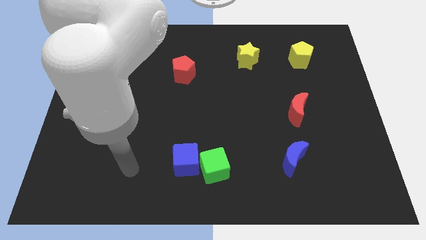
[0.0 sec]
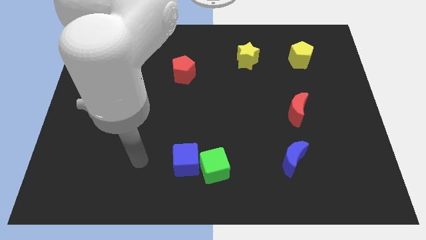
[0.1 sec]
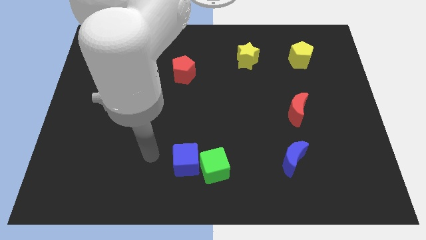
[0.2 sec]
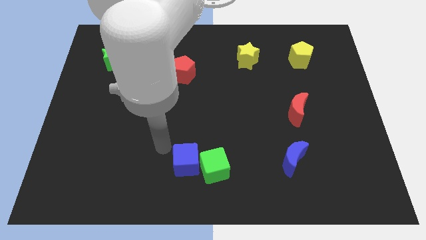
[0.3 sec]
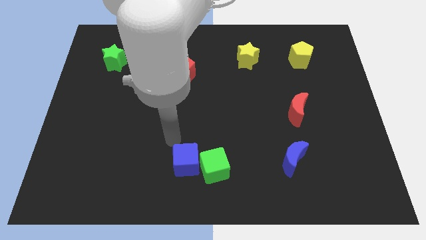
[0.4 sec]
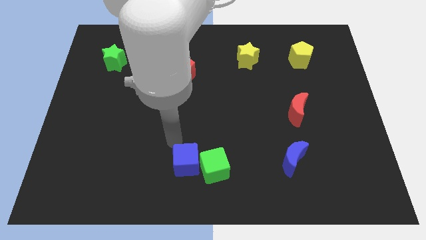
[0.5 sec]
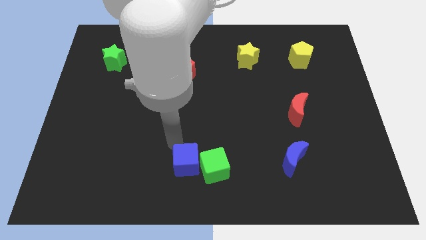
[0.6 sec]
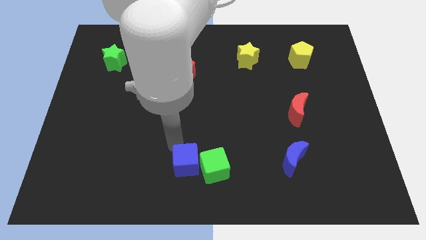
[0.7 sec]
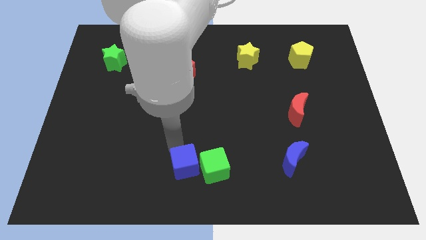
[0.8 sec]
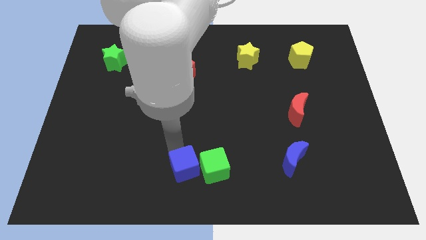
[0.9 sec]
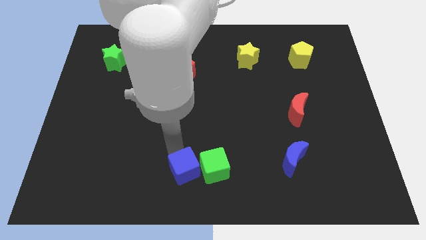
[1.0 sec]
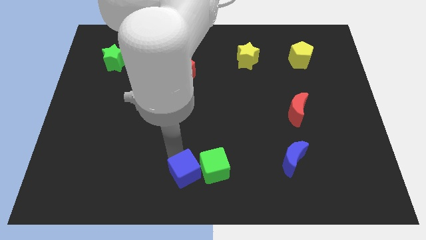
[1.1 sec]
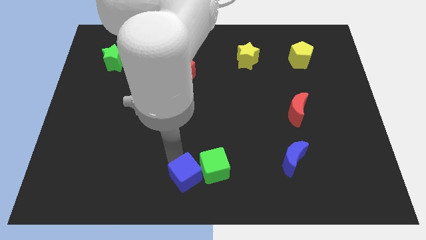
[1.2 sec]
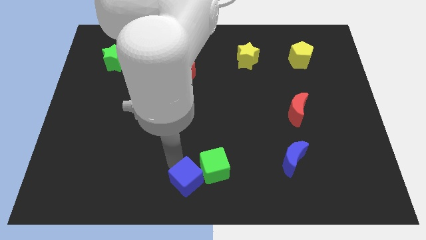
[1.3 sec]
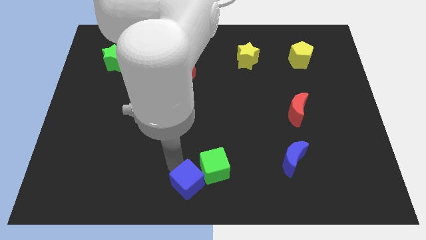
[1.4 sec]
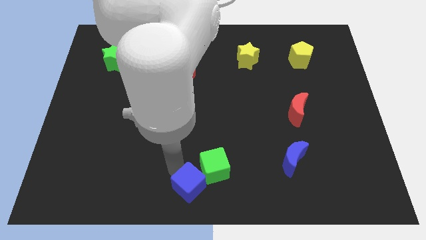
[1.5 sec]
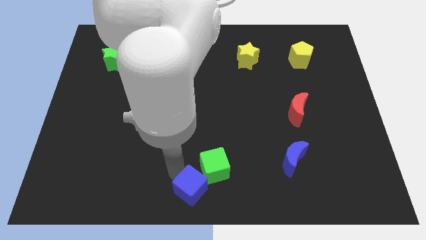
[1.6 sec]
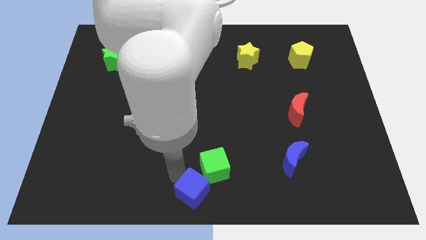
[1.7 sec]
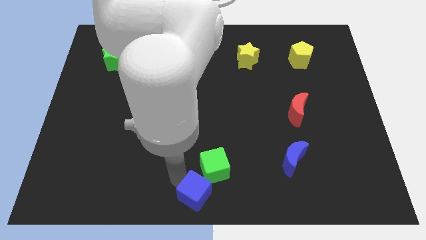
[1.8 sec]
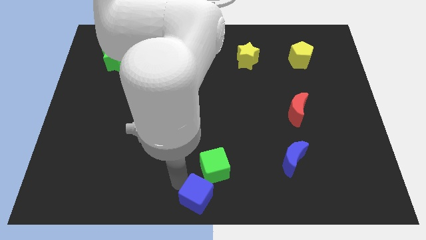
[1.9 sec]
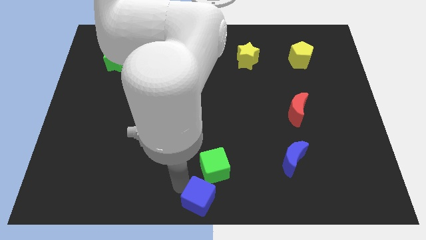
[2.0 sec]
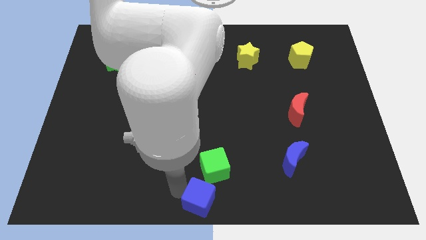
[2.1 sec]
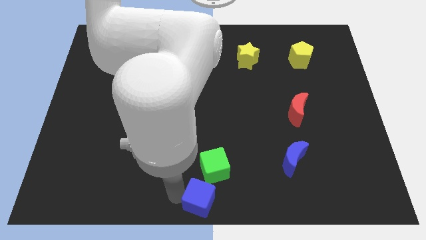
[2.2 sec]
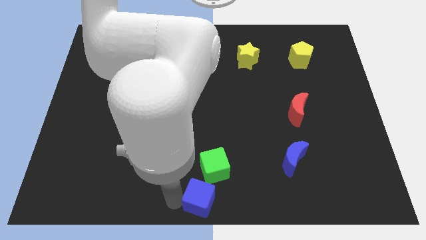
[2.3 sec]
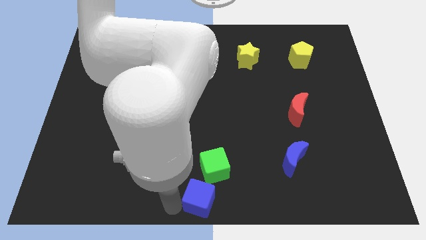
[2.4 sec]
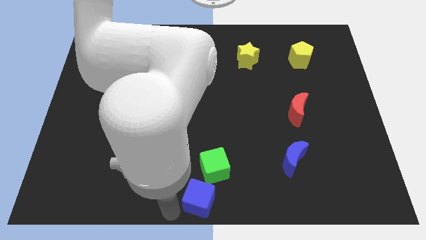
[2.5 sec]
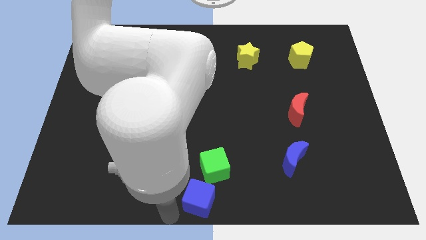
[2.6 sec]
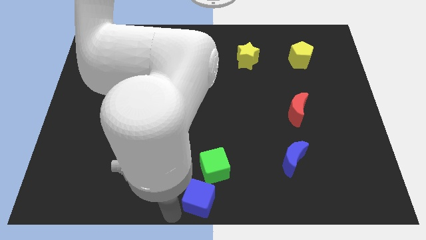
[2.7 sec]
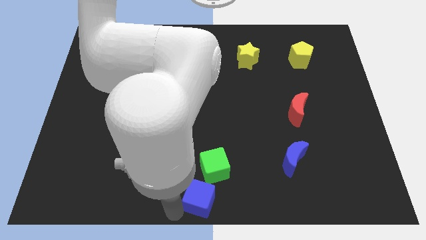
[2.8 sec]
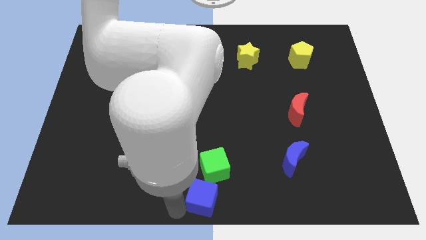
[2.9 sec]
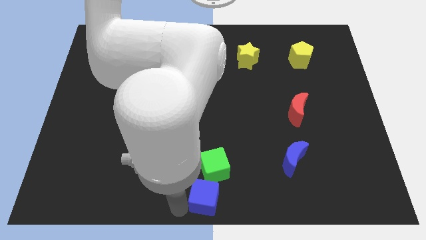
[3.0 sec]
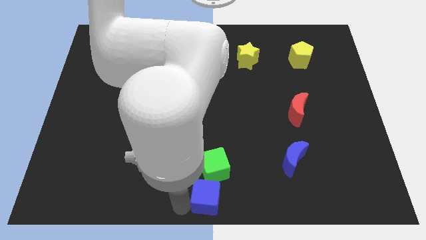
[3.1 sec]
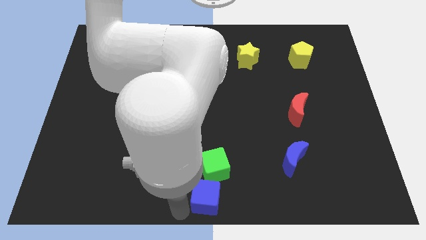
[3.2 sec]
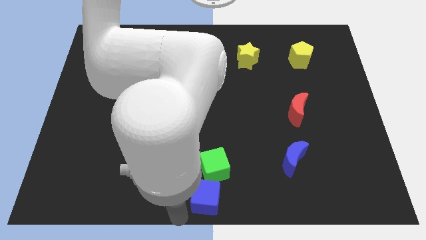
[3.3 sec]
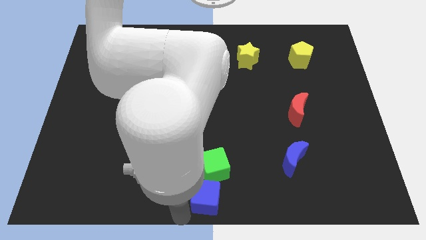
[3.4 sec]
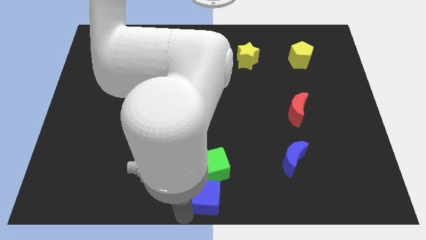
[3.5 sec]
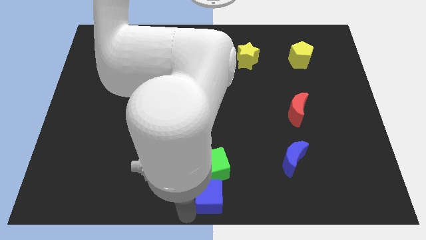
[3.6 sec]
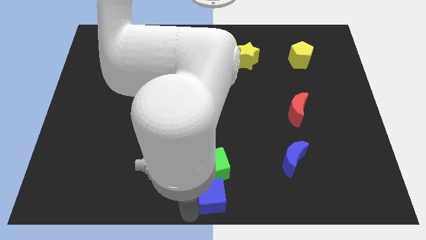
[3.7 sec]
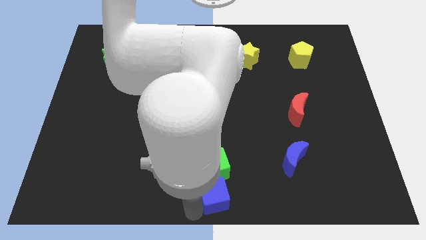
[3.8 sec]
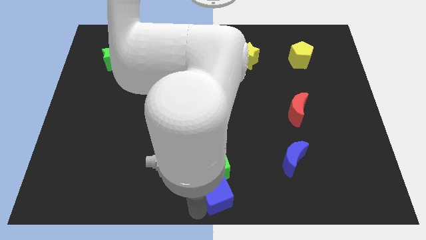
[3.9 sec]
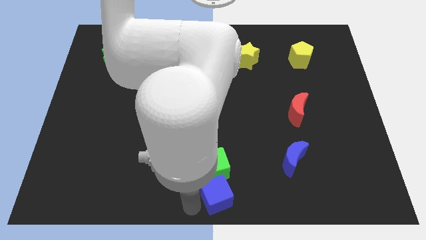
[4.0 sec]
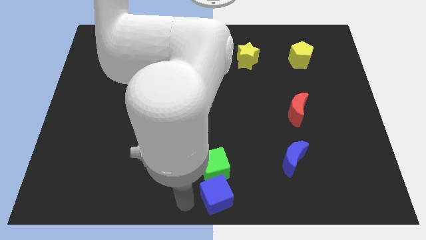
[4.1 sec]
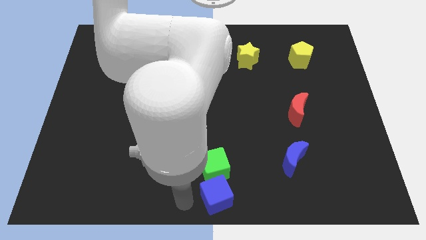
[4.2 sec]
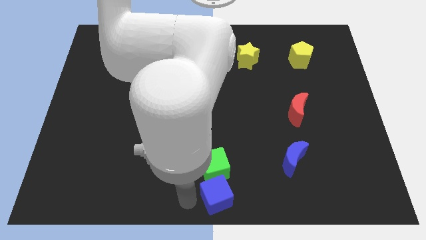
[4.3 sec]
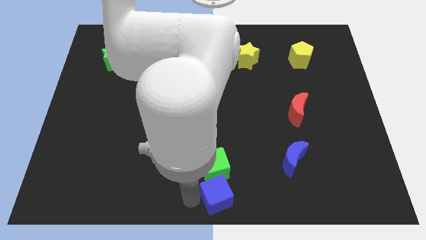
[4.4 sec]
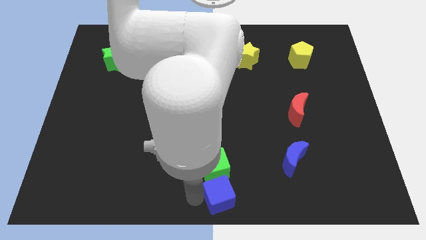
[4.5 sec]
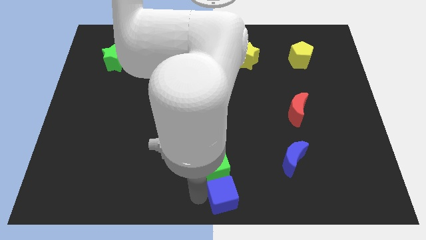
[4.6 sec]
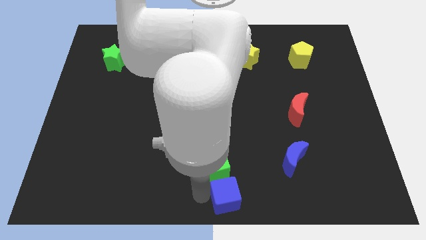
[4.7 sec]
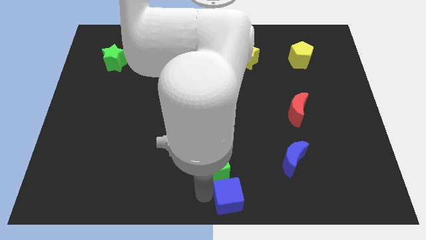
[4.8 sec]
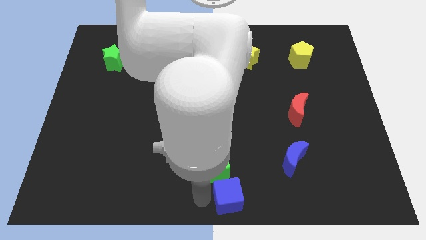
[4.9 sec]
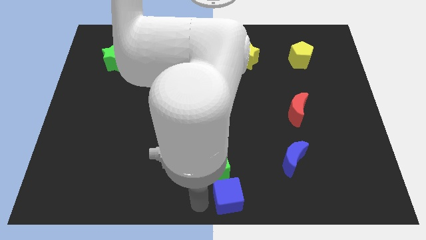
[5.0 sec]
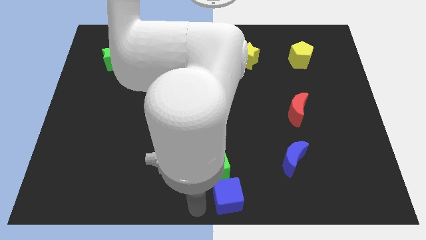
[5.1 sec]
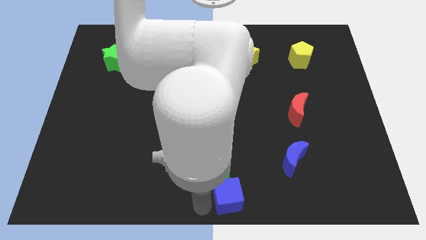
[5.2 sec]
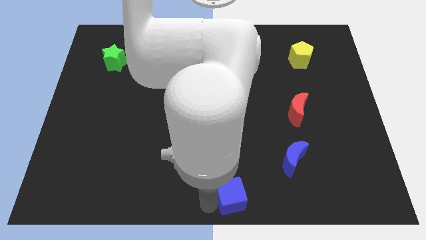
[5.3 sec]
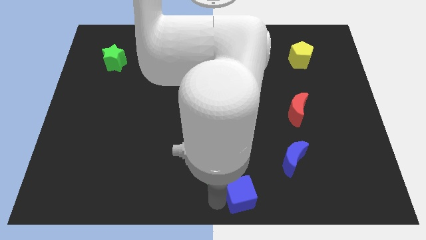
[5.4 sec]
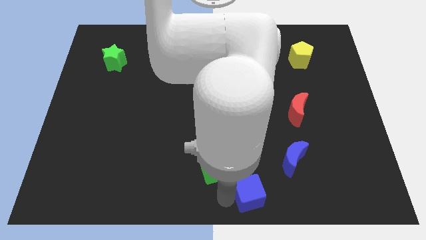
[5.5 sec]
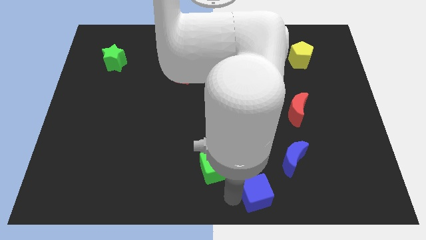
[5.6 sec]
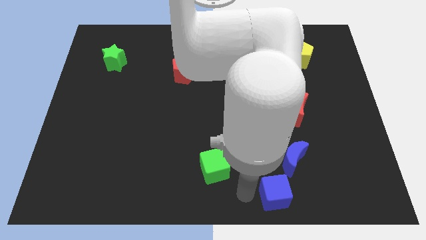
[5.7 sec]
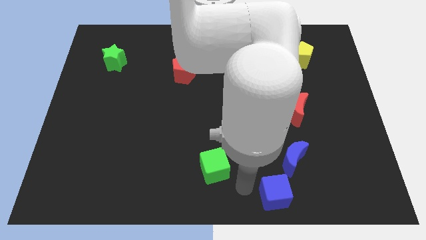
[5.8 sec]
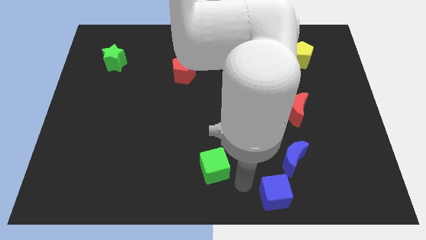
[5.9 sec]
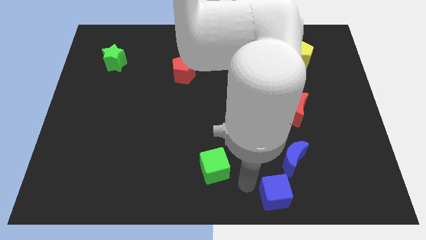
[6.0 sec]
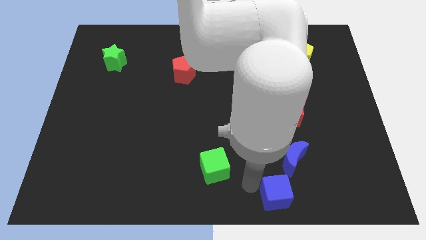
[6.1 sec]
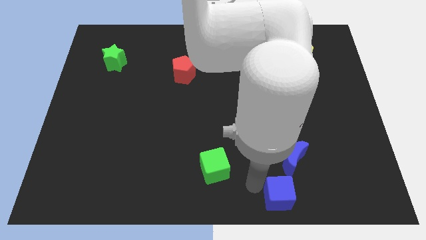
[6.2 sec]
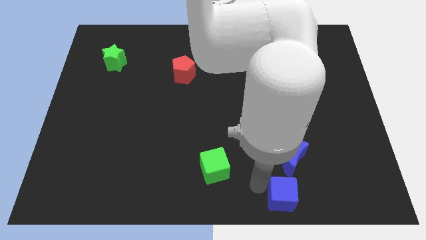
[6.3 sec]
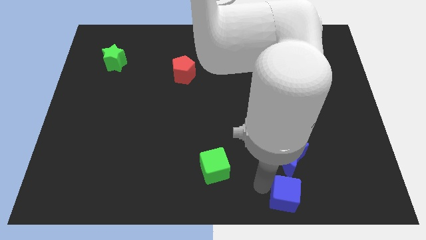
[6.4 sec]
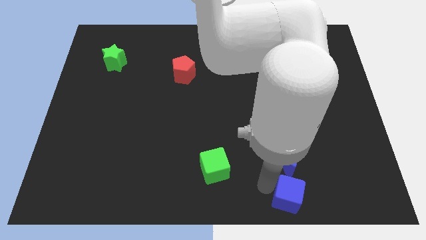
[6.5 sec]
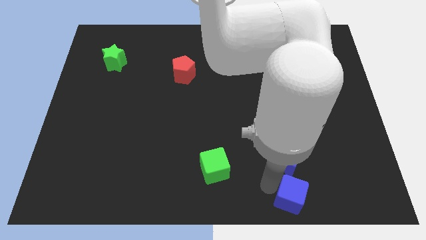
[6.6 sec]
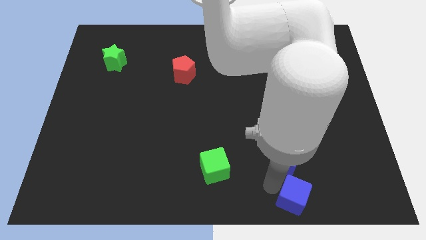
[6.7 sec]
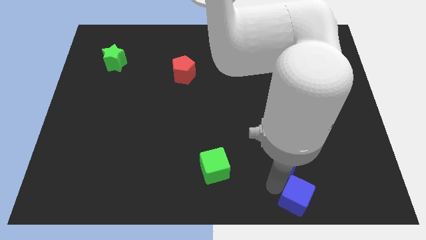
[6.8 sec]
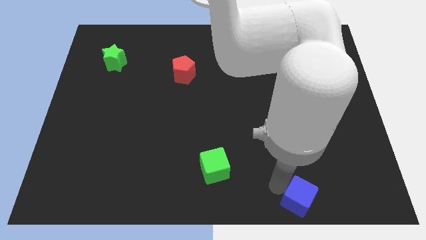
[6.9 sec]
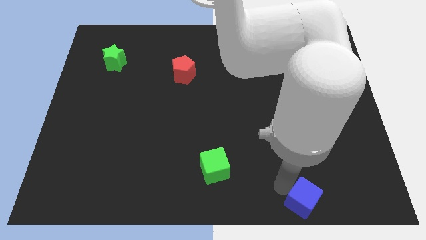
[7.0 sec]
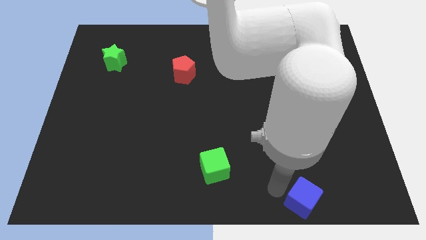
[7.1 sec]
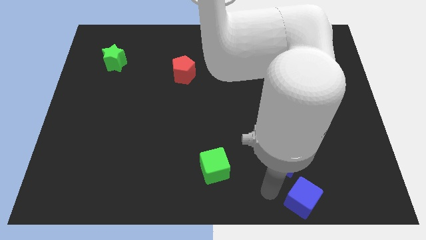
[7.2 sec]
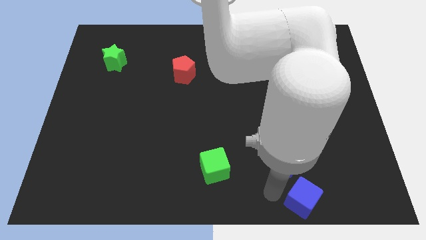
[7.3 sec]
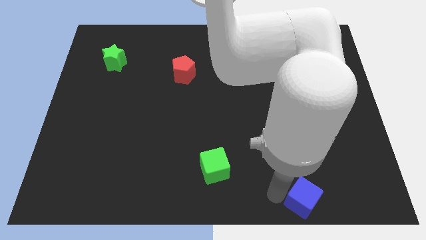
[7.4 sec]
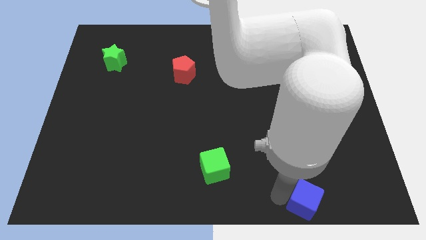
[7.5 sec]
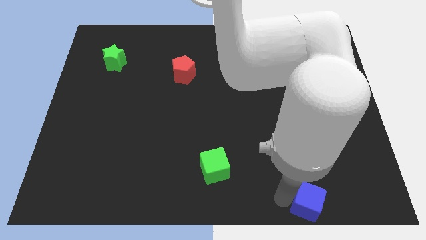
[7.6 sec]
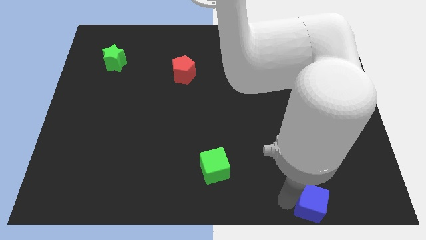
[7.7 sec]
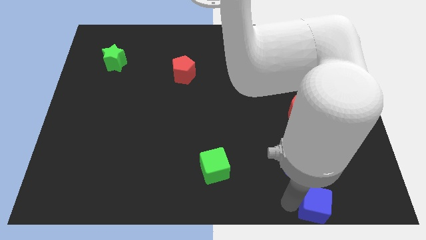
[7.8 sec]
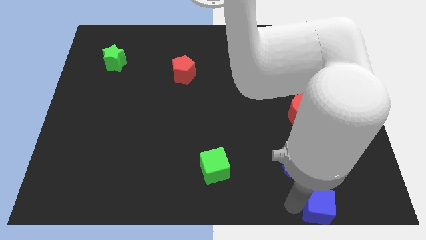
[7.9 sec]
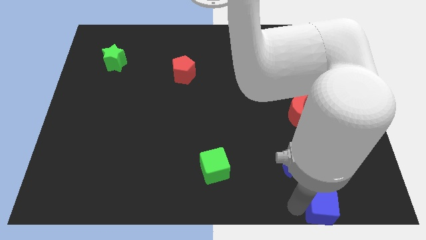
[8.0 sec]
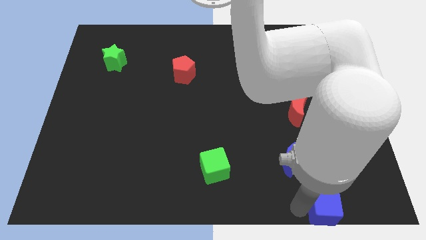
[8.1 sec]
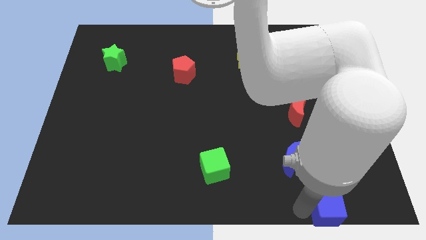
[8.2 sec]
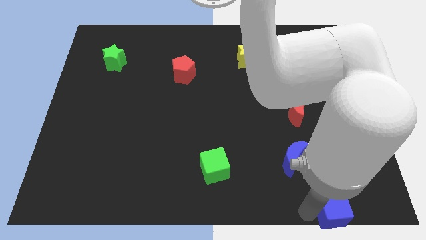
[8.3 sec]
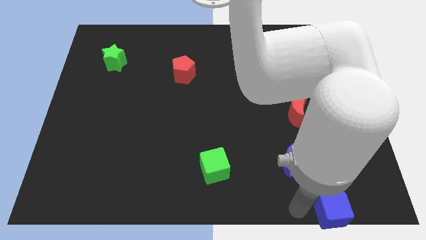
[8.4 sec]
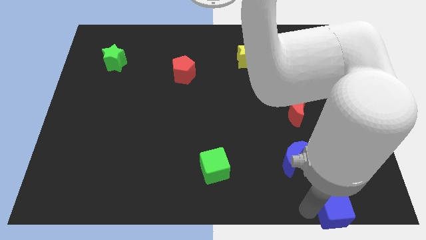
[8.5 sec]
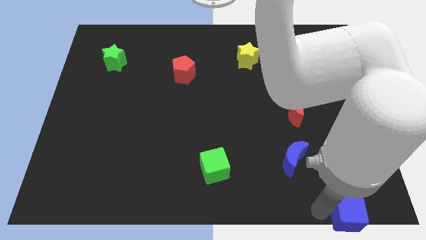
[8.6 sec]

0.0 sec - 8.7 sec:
put the blue cube to the bottom right

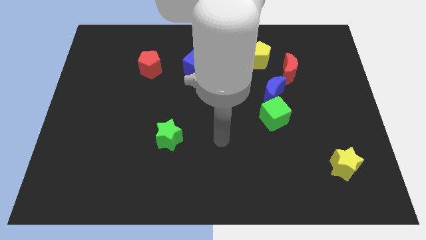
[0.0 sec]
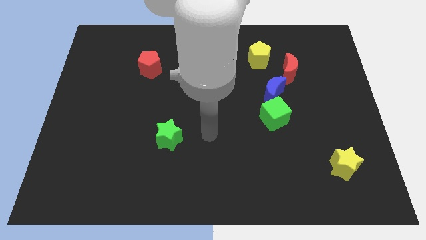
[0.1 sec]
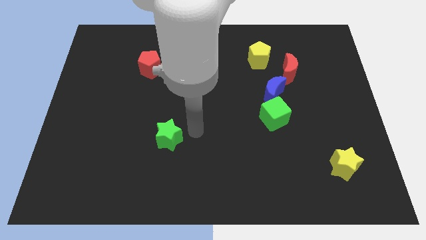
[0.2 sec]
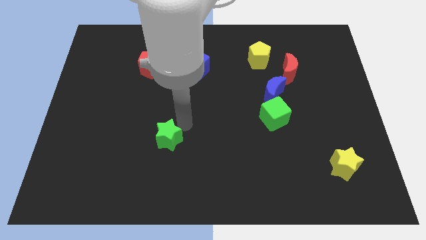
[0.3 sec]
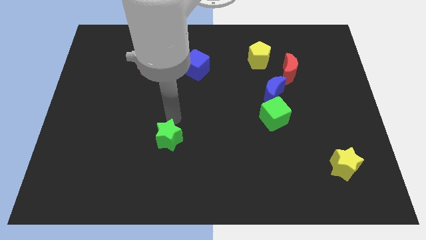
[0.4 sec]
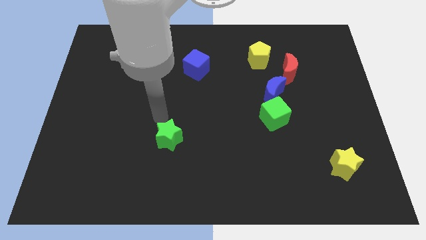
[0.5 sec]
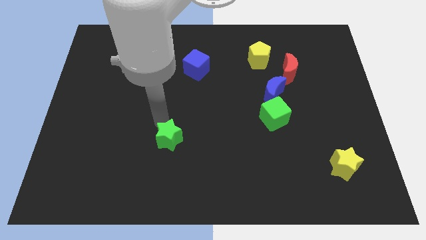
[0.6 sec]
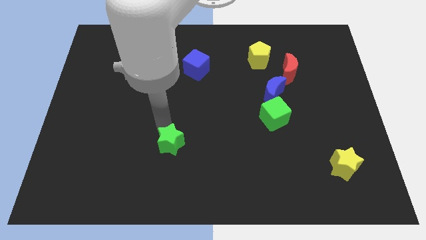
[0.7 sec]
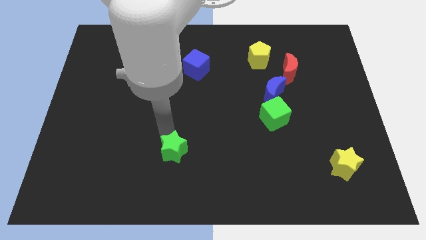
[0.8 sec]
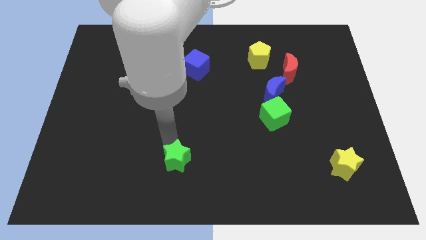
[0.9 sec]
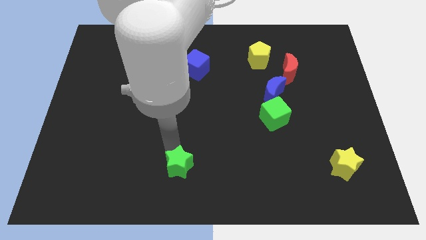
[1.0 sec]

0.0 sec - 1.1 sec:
push the green star to the bottom side
